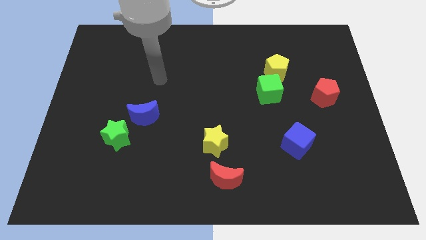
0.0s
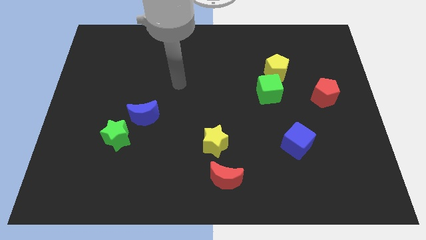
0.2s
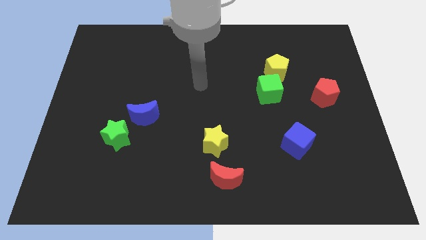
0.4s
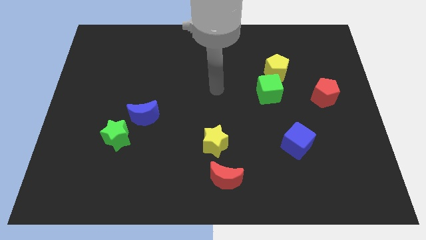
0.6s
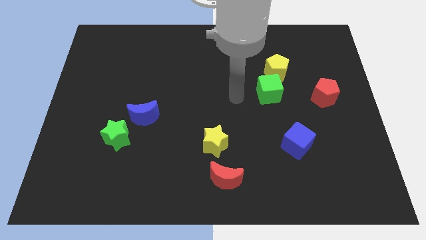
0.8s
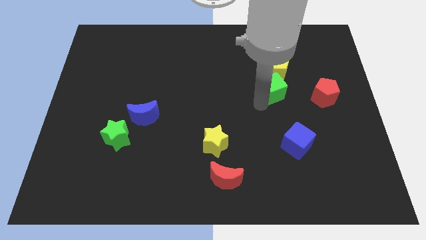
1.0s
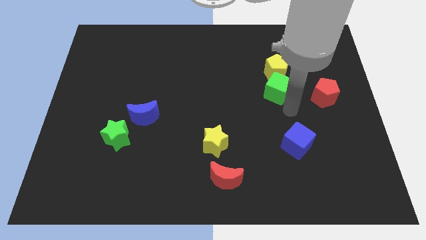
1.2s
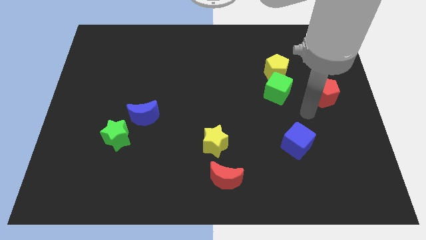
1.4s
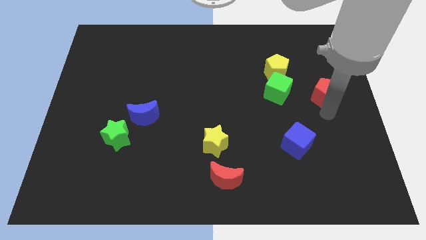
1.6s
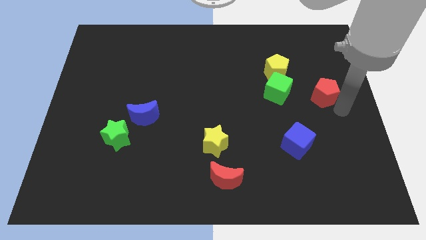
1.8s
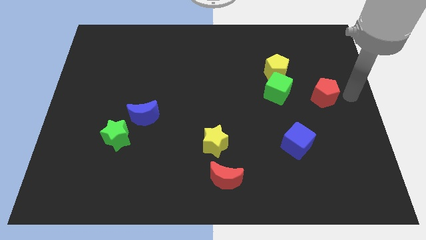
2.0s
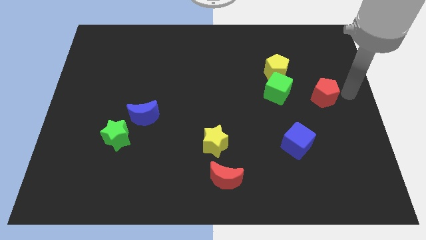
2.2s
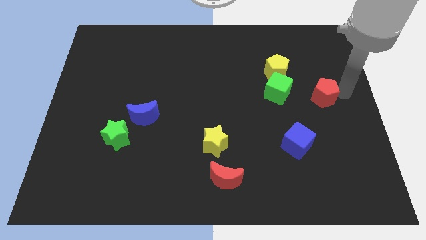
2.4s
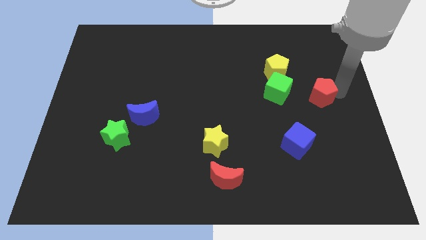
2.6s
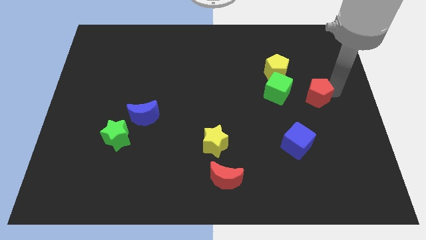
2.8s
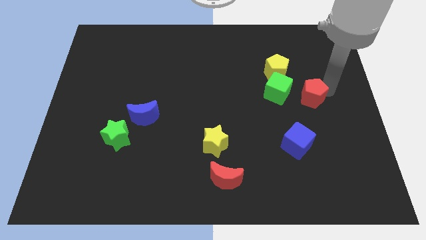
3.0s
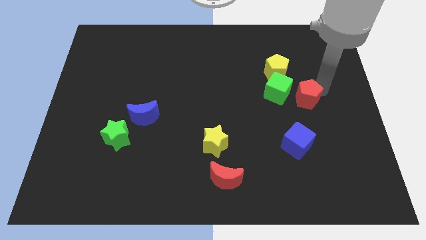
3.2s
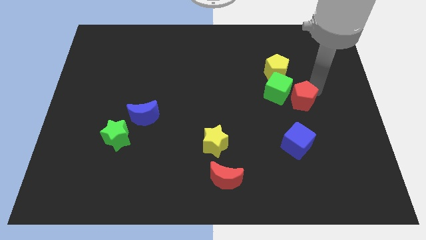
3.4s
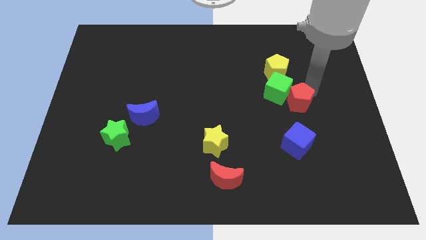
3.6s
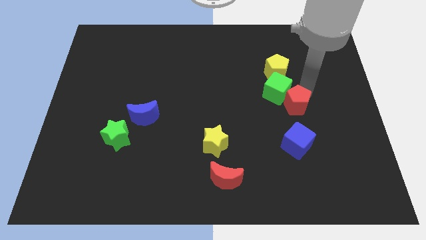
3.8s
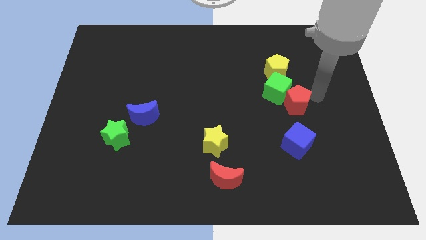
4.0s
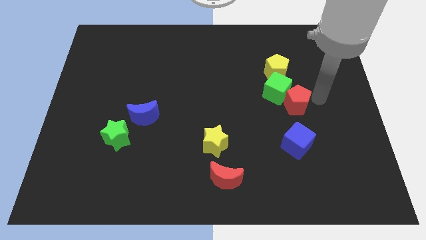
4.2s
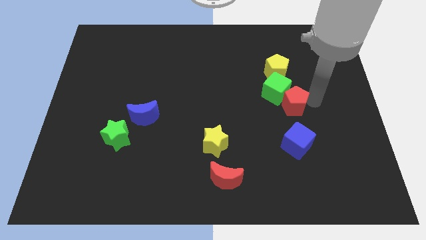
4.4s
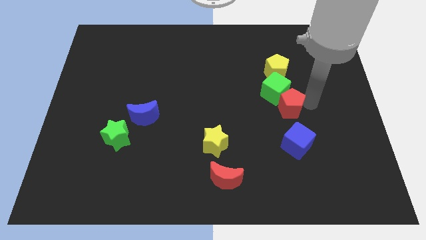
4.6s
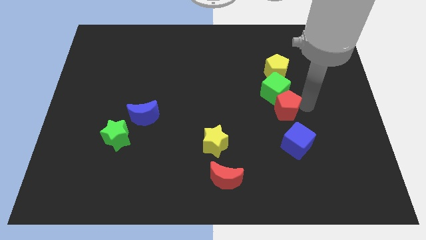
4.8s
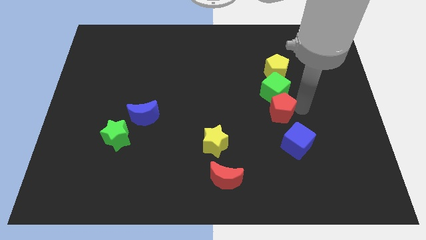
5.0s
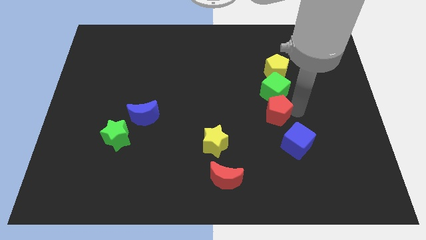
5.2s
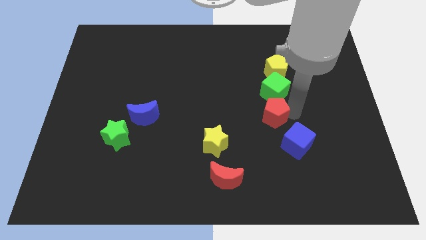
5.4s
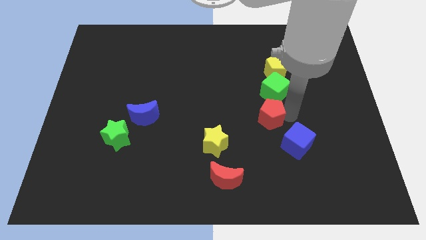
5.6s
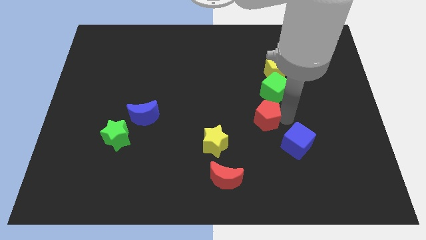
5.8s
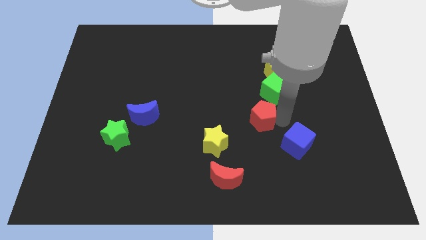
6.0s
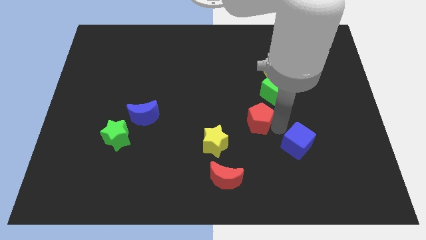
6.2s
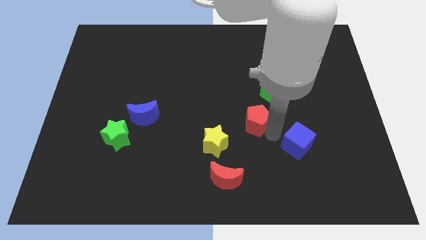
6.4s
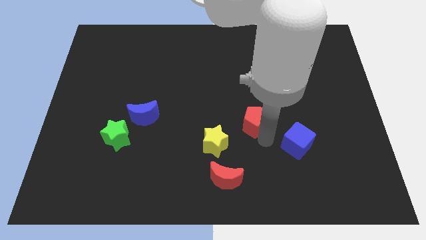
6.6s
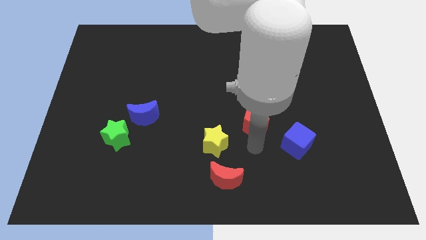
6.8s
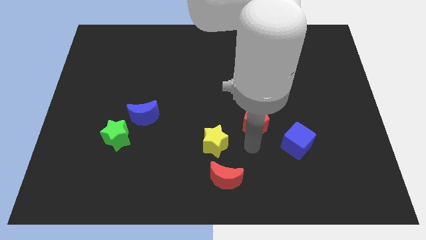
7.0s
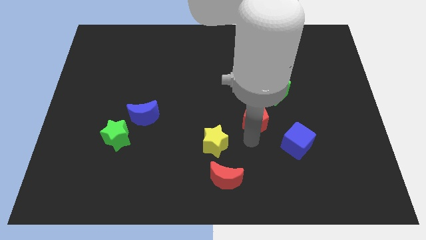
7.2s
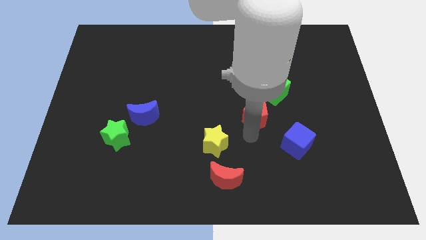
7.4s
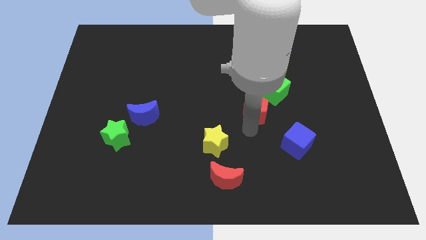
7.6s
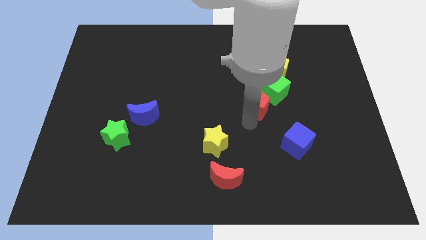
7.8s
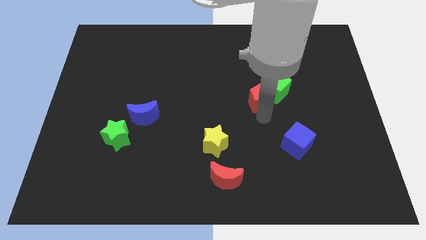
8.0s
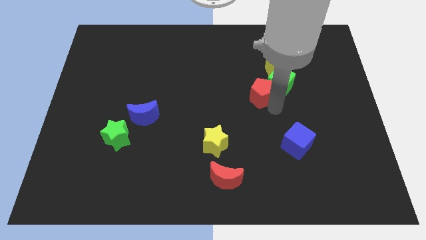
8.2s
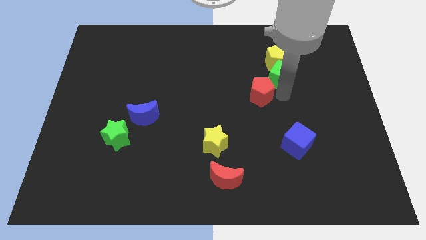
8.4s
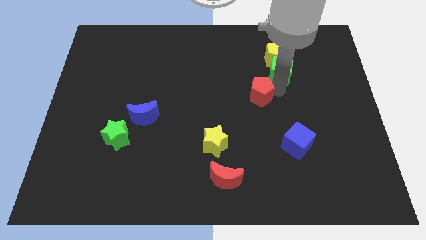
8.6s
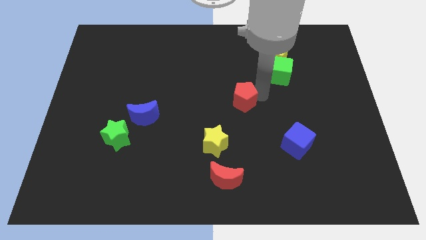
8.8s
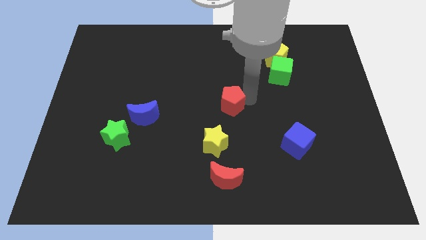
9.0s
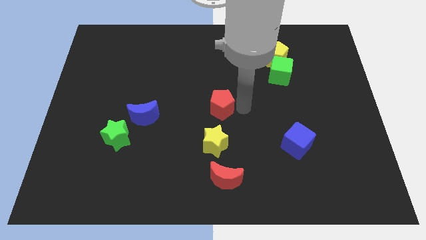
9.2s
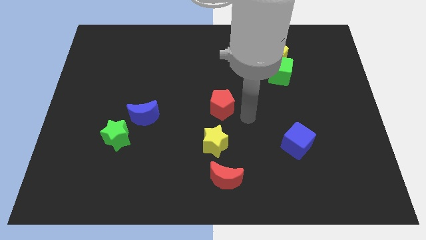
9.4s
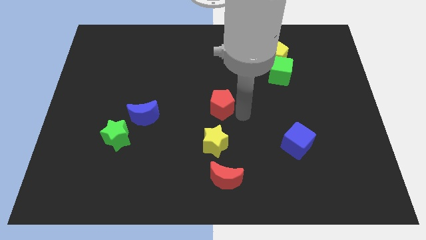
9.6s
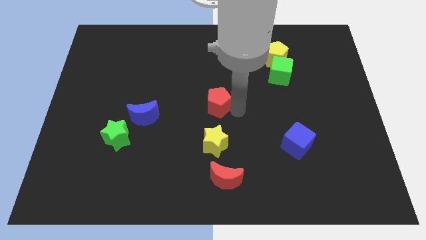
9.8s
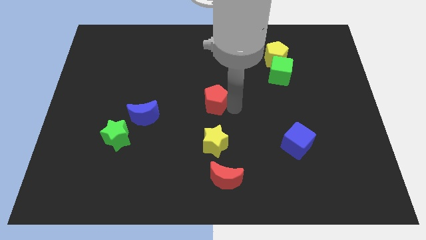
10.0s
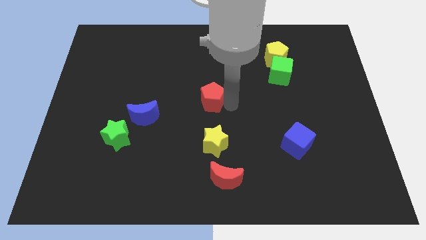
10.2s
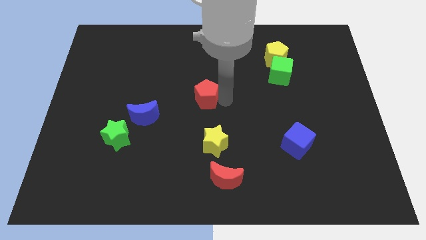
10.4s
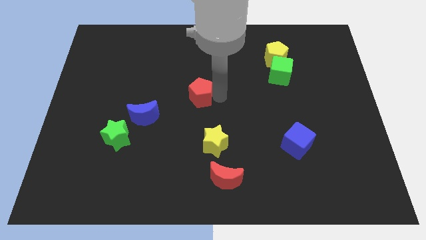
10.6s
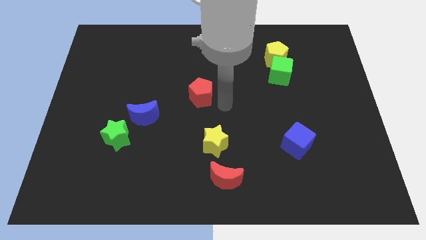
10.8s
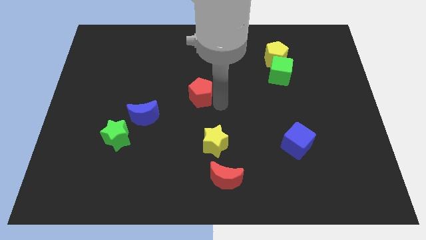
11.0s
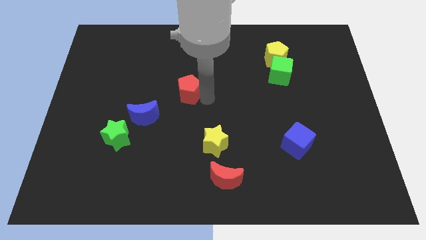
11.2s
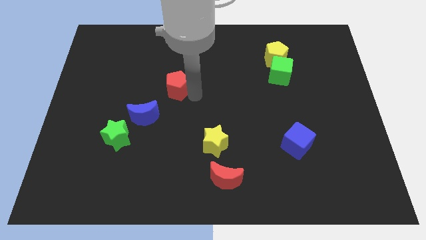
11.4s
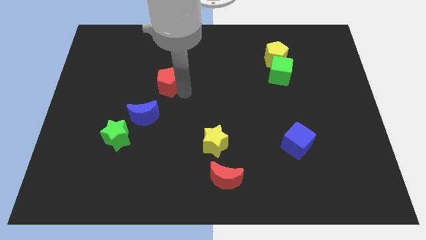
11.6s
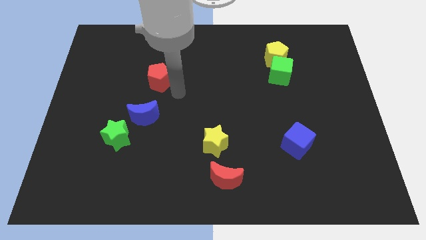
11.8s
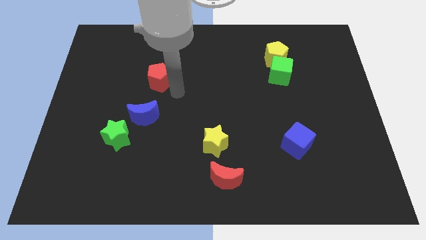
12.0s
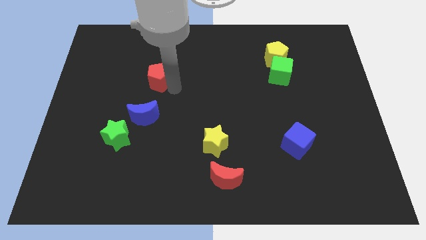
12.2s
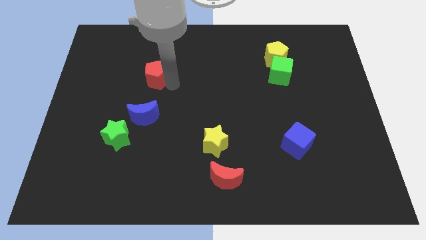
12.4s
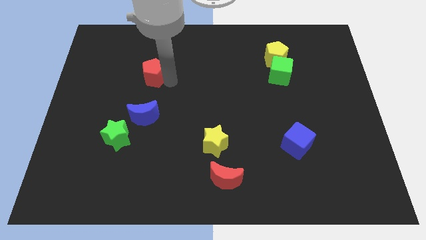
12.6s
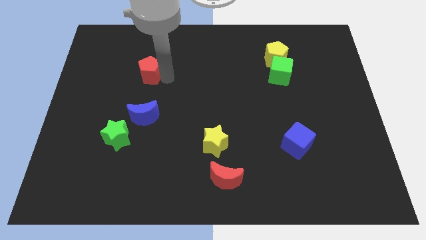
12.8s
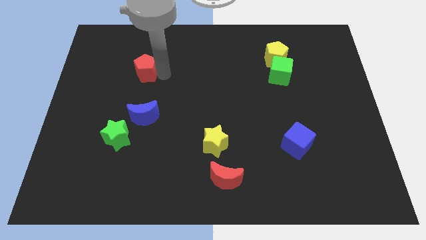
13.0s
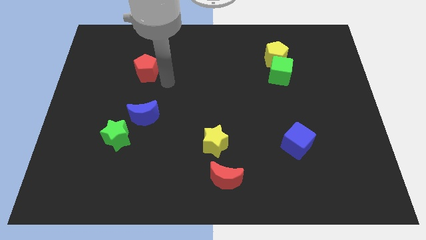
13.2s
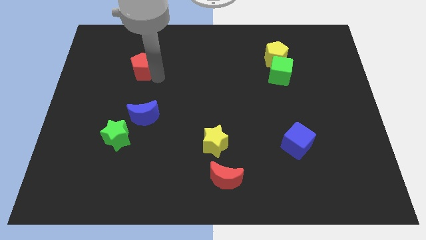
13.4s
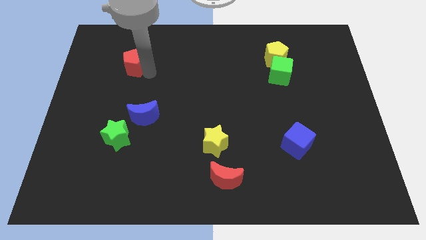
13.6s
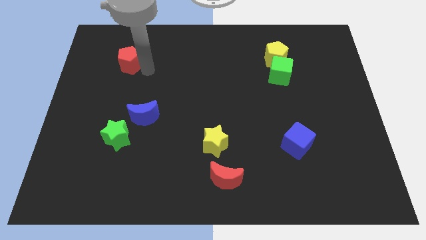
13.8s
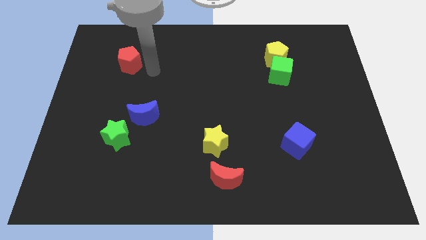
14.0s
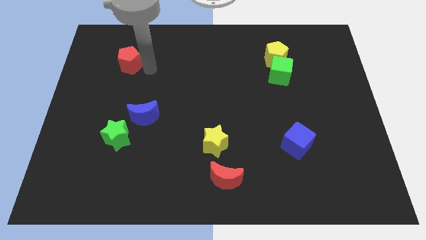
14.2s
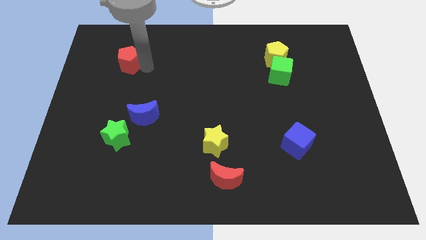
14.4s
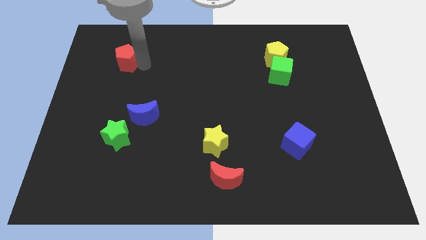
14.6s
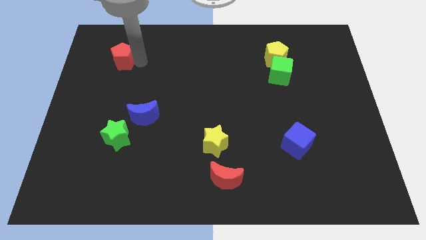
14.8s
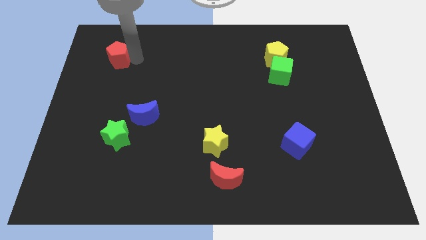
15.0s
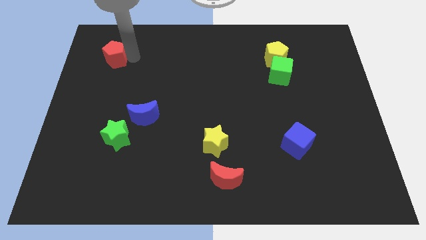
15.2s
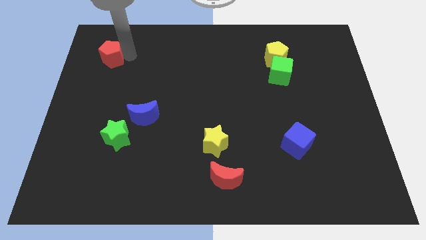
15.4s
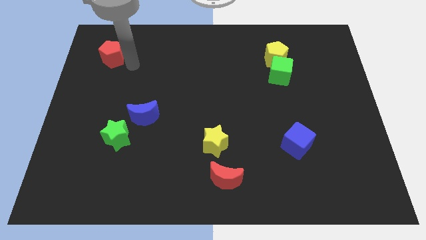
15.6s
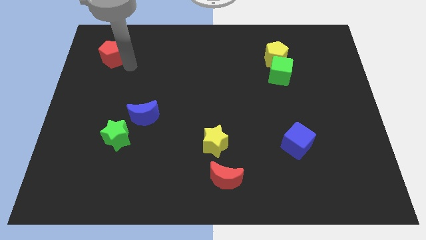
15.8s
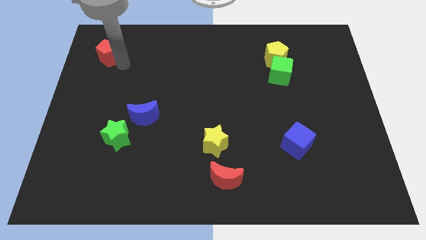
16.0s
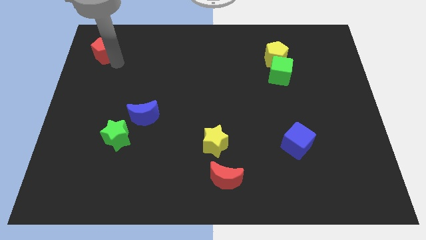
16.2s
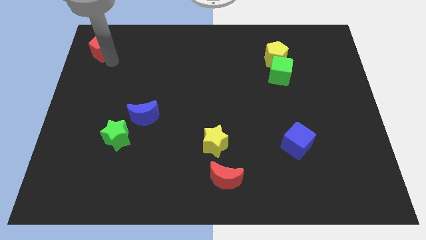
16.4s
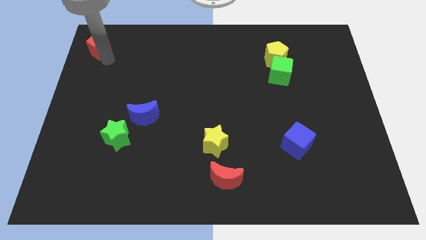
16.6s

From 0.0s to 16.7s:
push the red pentagon to the top left of the board

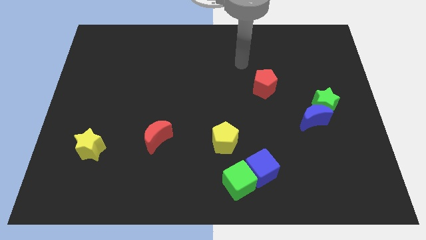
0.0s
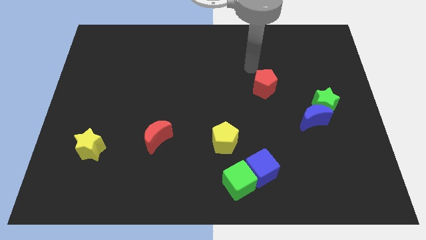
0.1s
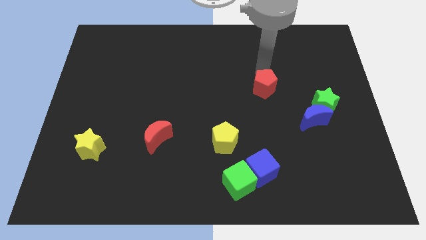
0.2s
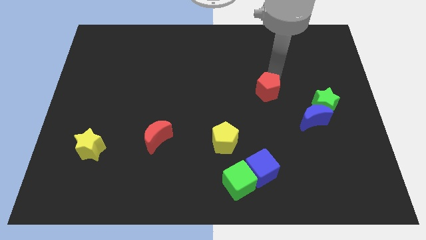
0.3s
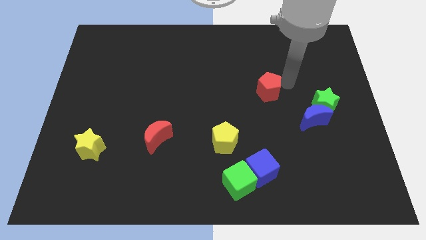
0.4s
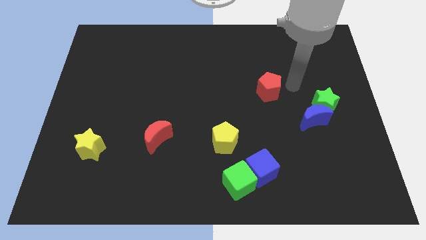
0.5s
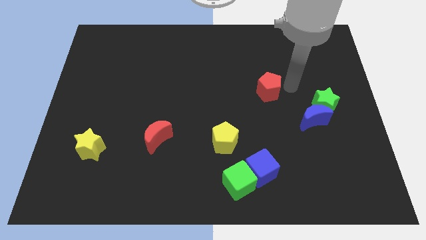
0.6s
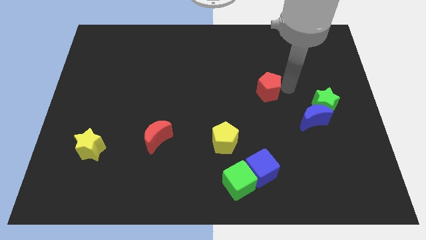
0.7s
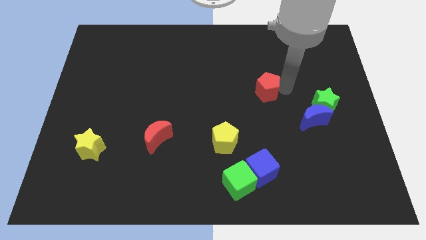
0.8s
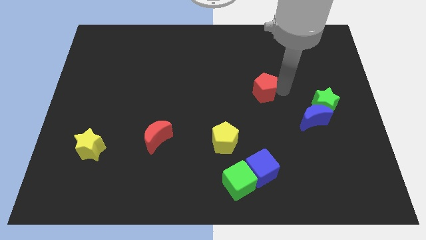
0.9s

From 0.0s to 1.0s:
push the red pentagon to the middle of the board
